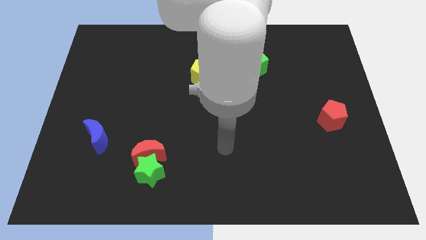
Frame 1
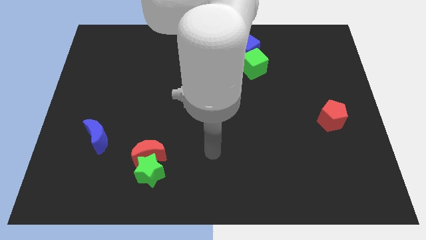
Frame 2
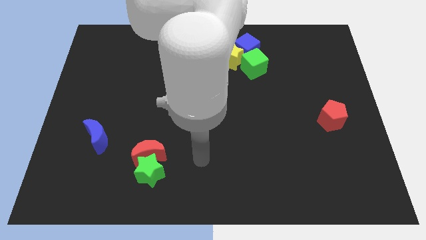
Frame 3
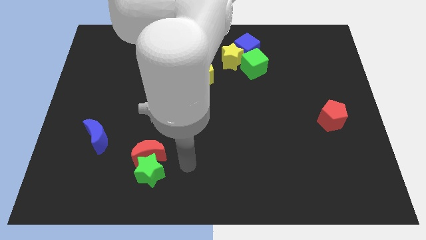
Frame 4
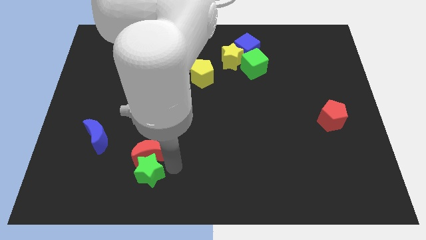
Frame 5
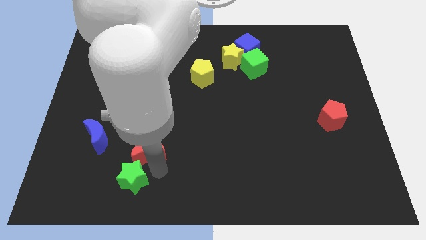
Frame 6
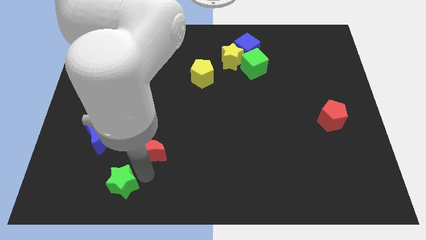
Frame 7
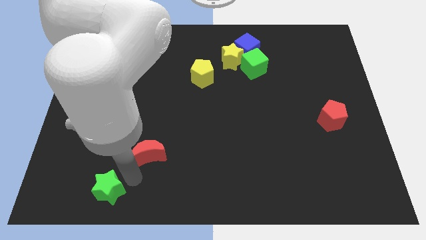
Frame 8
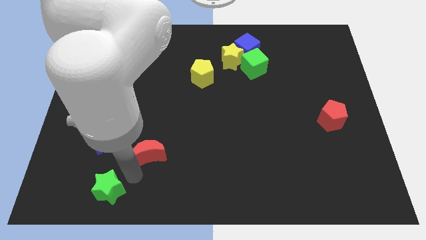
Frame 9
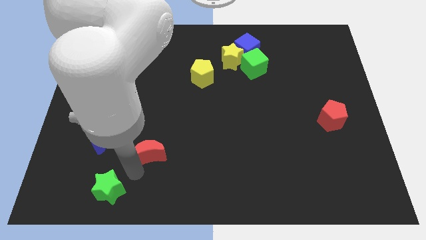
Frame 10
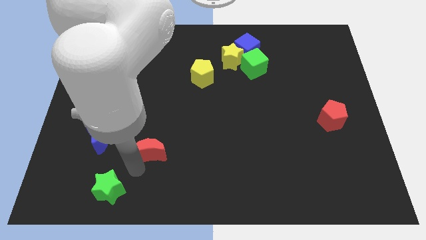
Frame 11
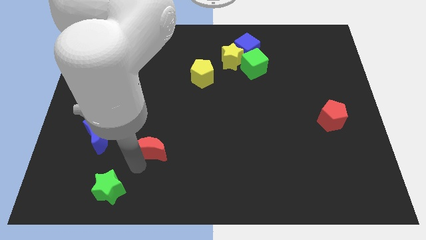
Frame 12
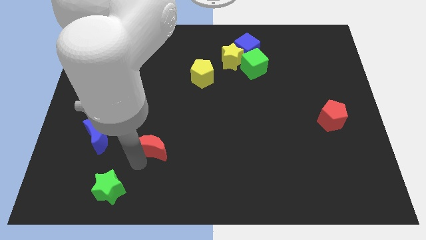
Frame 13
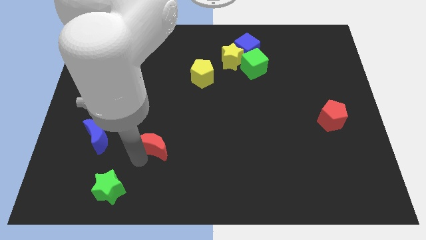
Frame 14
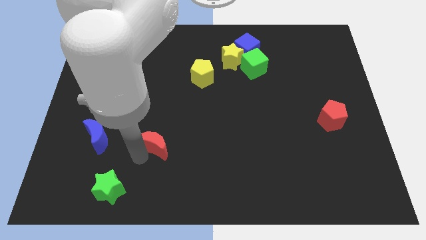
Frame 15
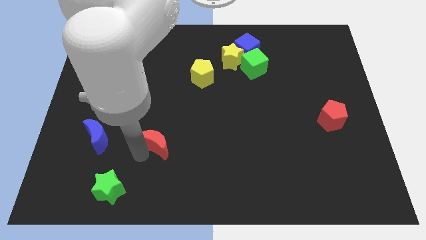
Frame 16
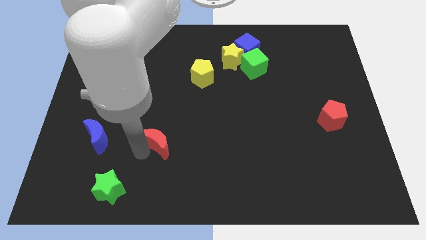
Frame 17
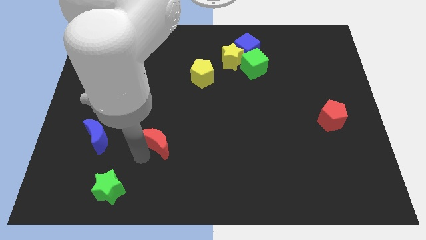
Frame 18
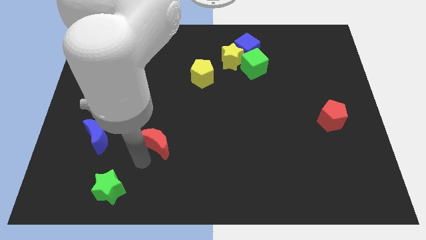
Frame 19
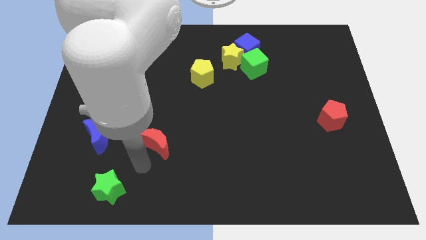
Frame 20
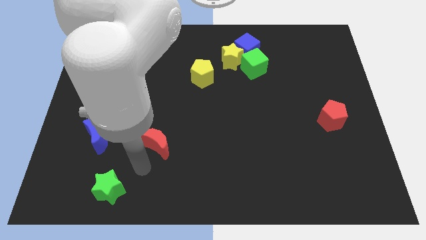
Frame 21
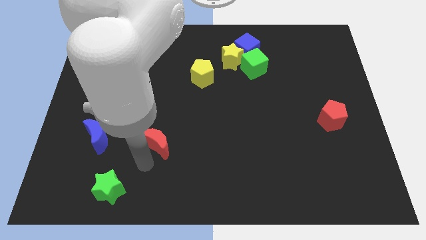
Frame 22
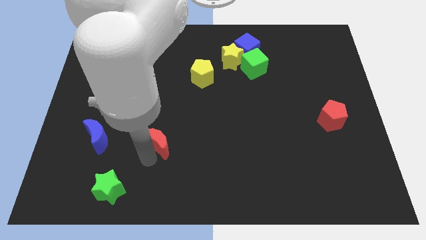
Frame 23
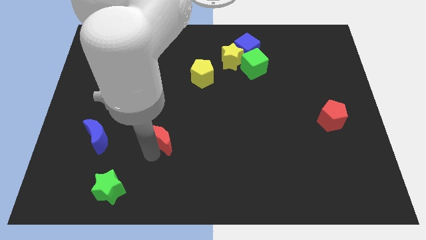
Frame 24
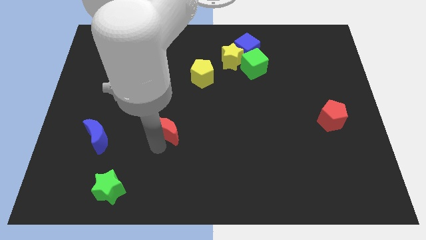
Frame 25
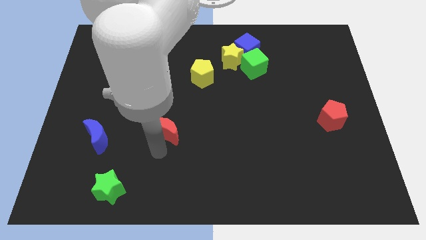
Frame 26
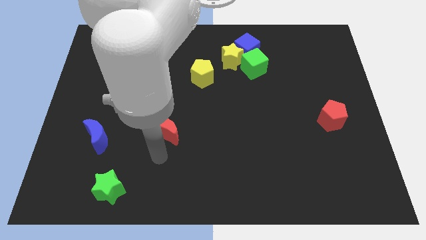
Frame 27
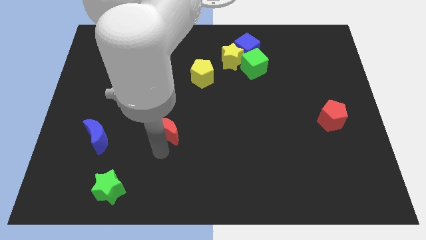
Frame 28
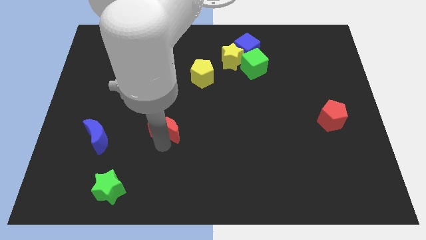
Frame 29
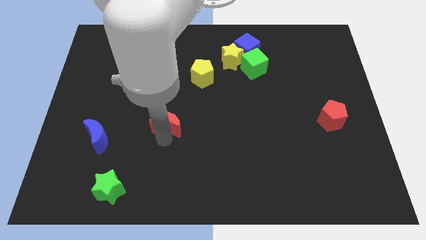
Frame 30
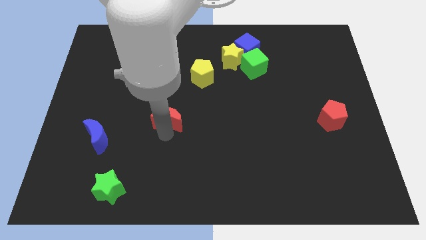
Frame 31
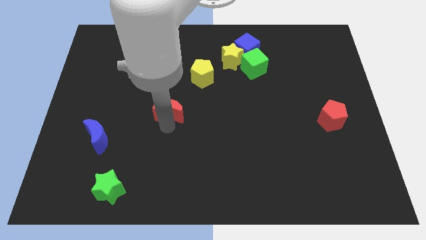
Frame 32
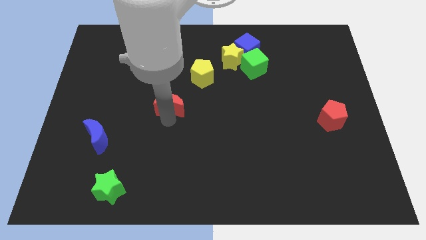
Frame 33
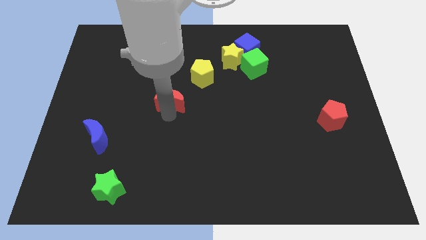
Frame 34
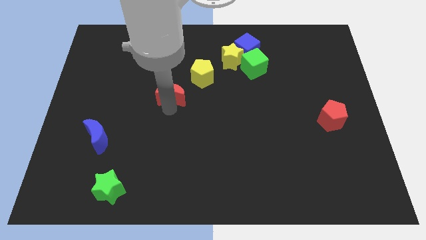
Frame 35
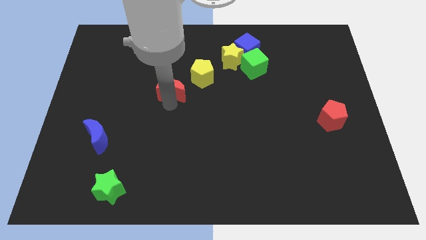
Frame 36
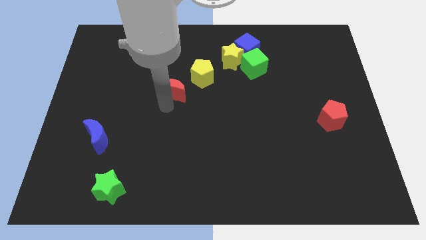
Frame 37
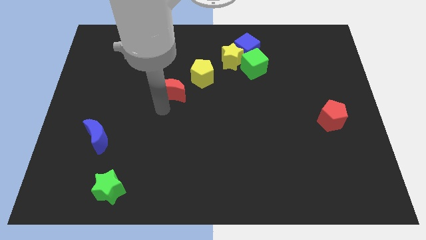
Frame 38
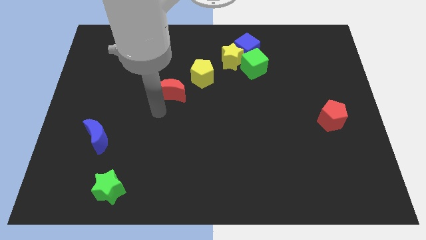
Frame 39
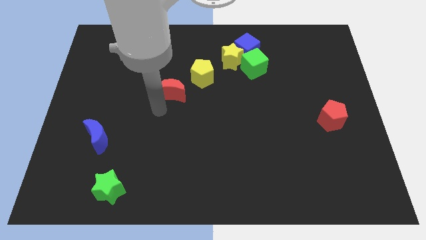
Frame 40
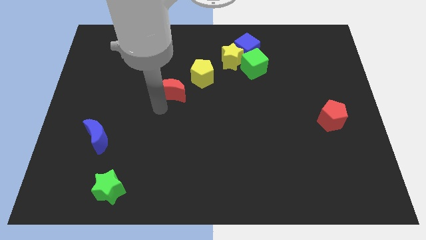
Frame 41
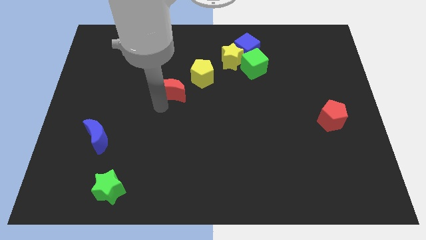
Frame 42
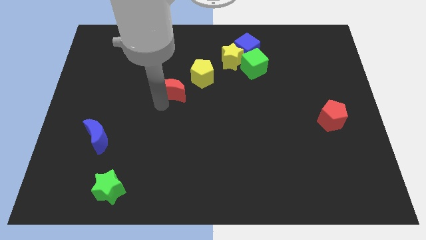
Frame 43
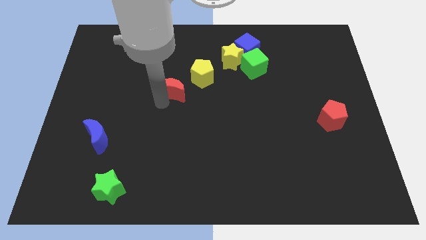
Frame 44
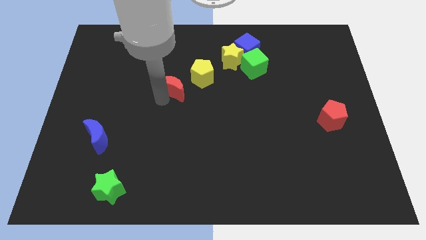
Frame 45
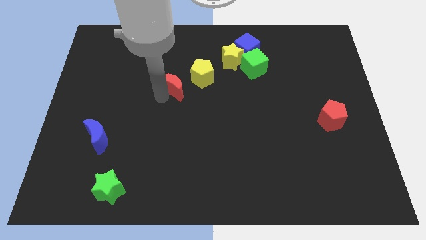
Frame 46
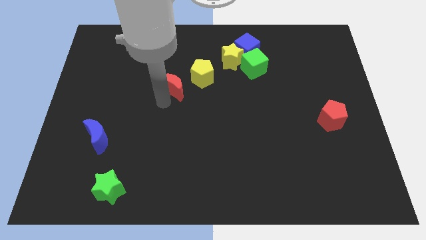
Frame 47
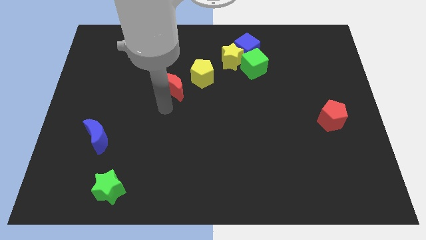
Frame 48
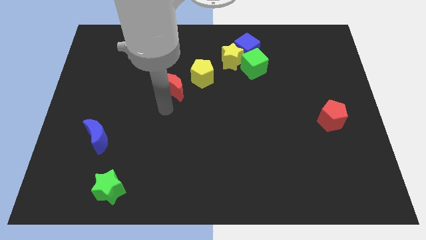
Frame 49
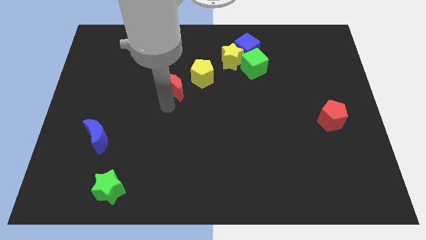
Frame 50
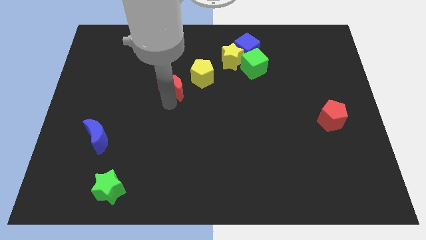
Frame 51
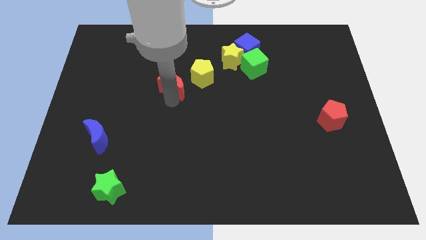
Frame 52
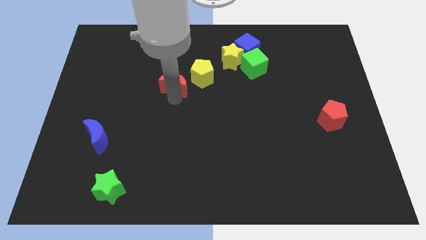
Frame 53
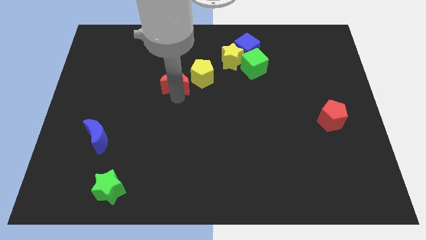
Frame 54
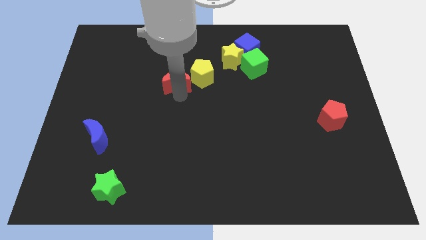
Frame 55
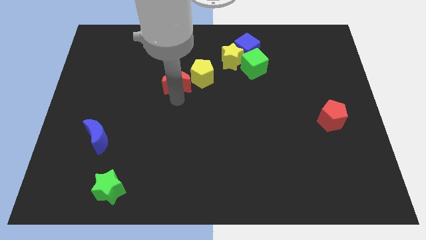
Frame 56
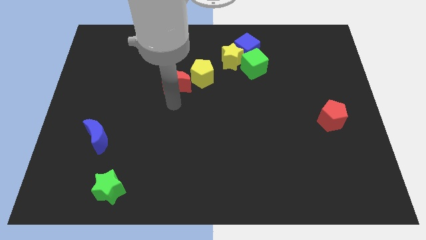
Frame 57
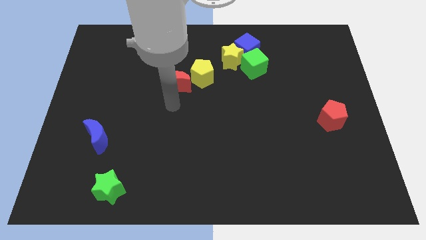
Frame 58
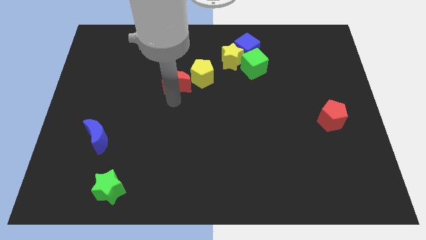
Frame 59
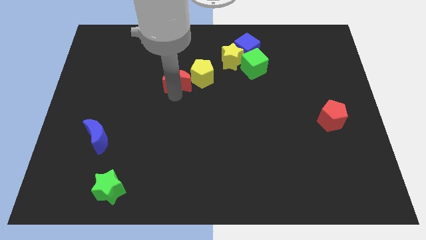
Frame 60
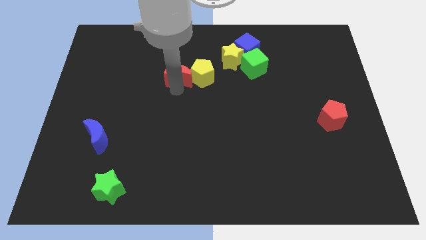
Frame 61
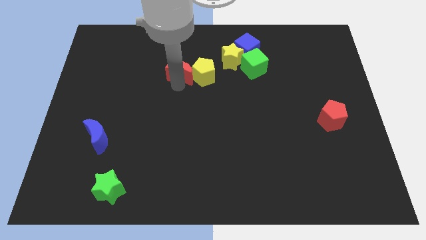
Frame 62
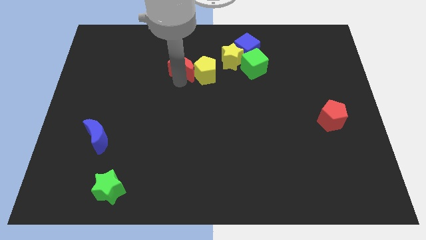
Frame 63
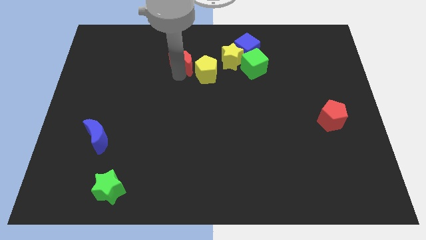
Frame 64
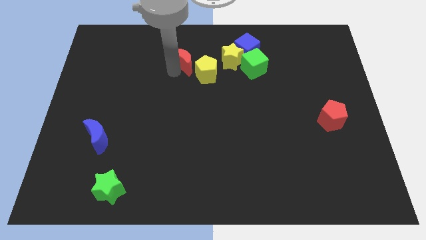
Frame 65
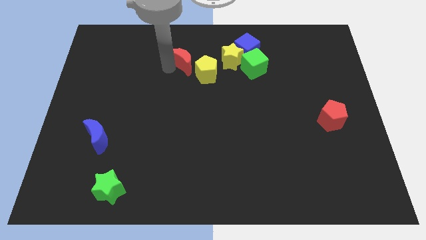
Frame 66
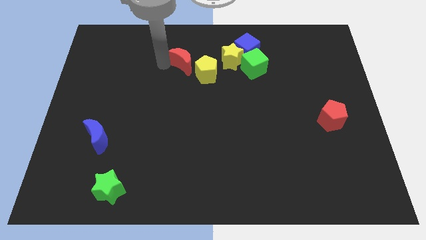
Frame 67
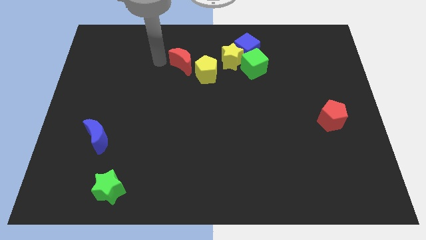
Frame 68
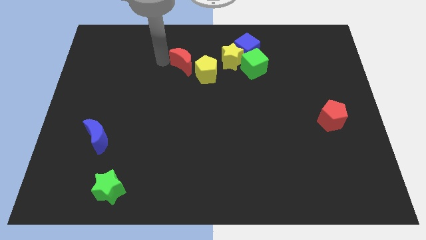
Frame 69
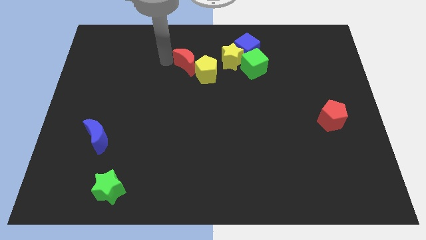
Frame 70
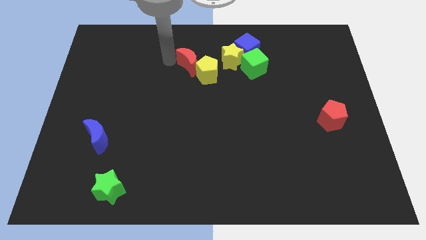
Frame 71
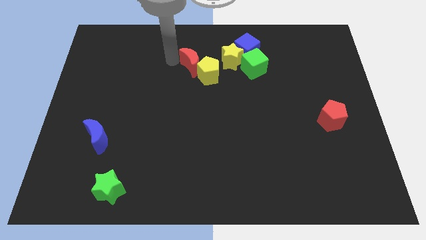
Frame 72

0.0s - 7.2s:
put the red moon left of the green cube
